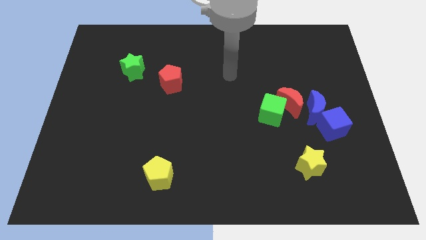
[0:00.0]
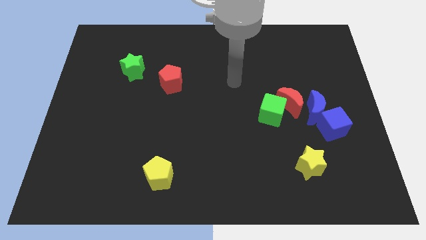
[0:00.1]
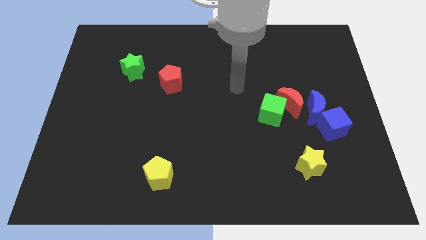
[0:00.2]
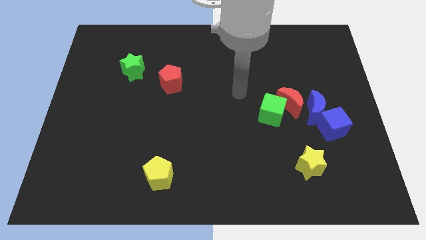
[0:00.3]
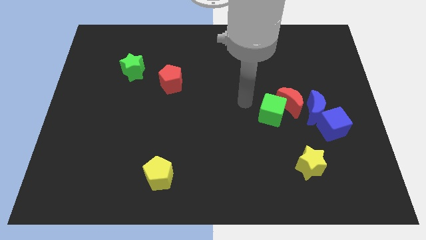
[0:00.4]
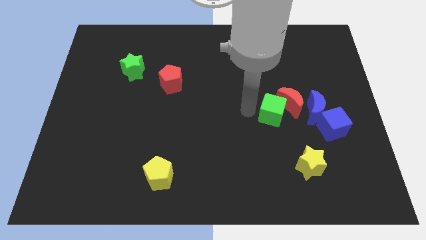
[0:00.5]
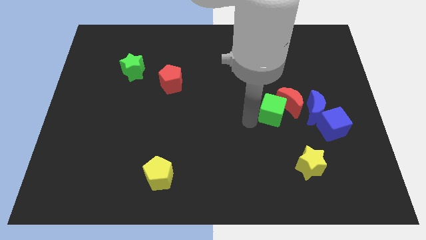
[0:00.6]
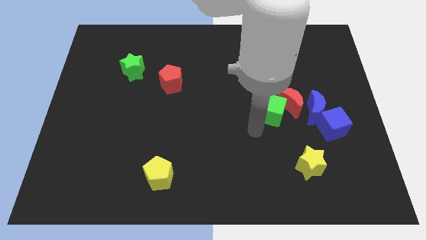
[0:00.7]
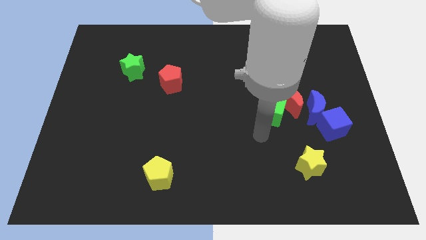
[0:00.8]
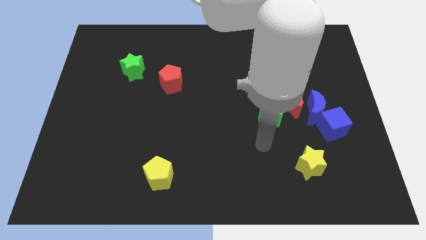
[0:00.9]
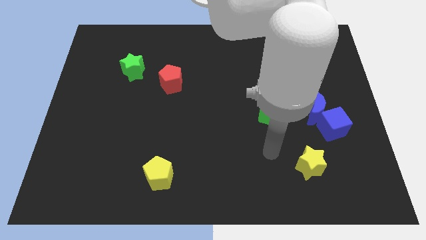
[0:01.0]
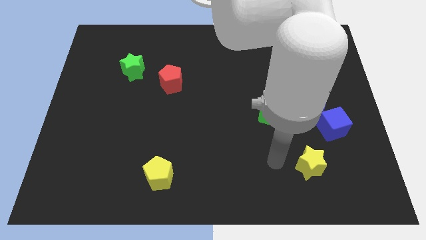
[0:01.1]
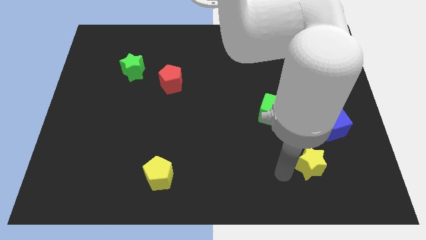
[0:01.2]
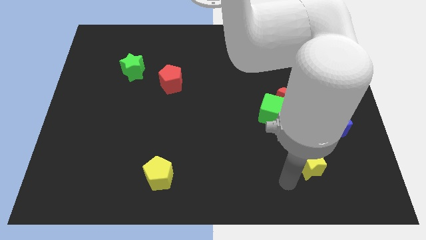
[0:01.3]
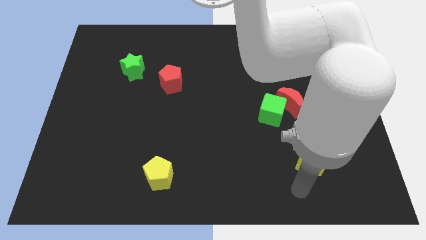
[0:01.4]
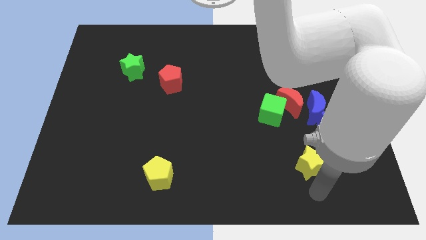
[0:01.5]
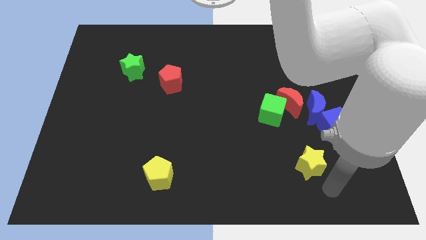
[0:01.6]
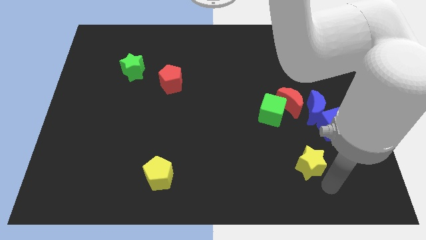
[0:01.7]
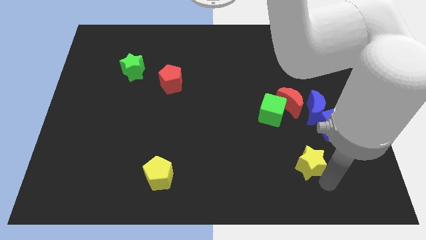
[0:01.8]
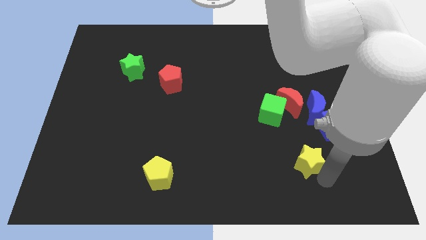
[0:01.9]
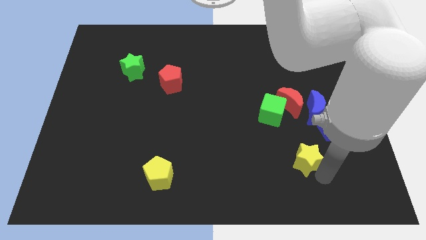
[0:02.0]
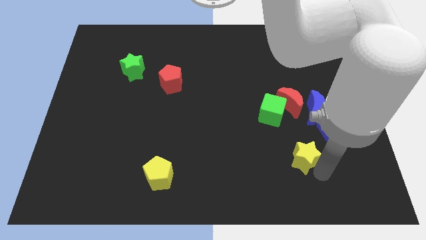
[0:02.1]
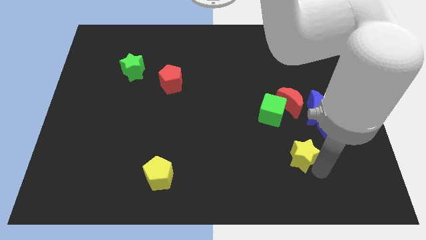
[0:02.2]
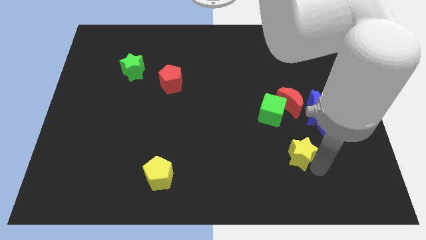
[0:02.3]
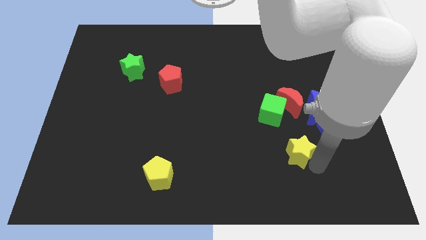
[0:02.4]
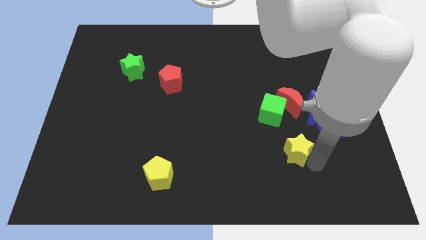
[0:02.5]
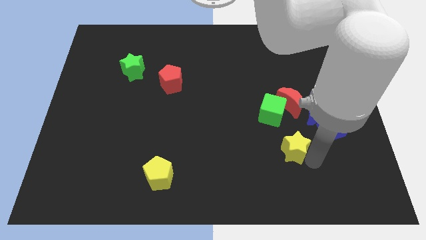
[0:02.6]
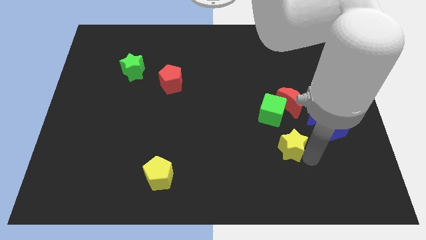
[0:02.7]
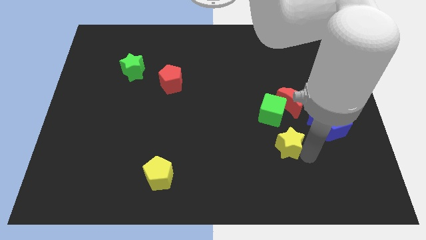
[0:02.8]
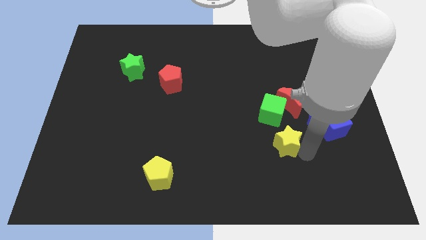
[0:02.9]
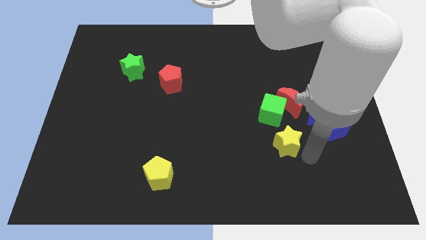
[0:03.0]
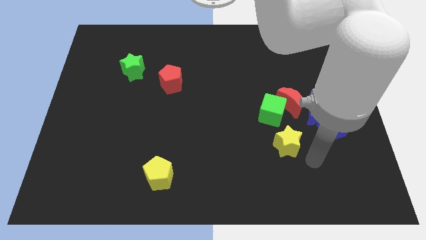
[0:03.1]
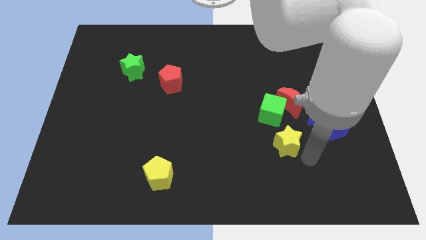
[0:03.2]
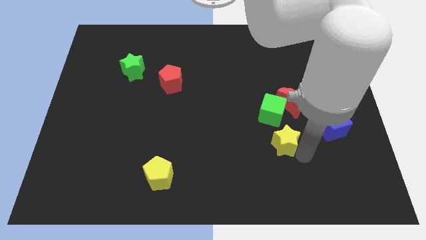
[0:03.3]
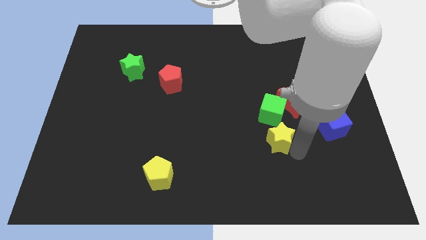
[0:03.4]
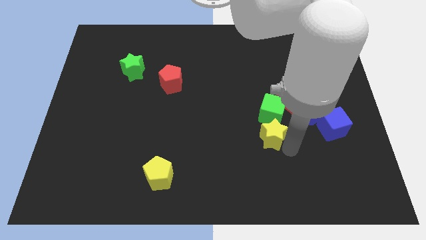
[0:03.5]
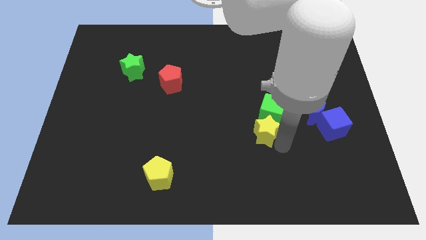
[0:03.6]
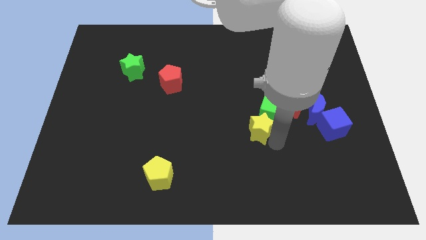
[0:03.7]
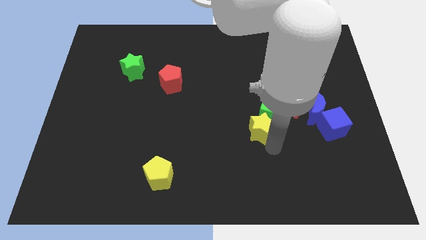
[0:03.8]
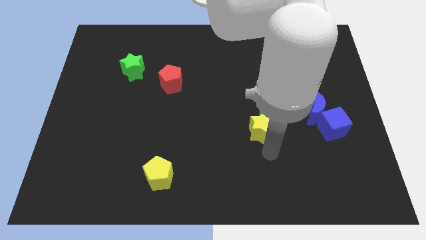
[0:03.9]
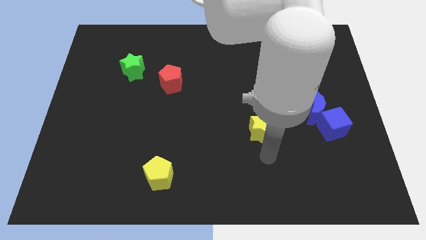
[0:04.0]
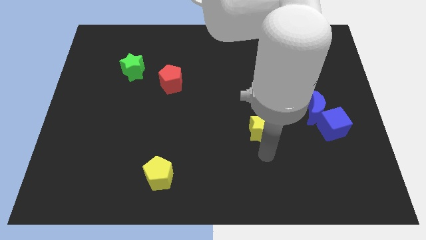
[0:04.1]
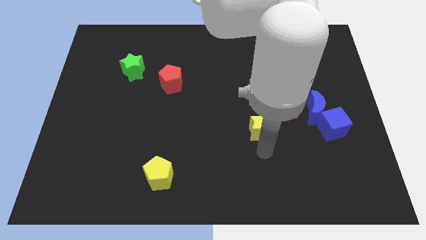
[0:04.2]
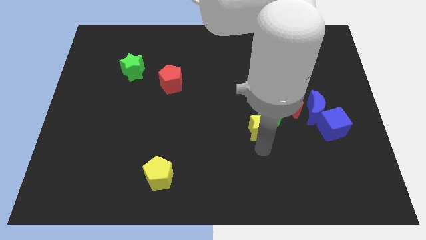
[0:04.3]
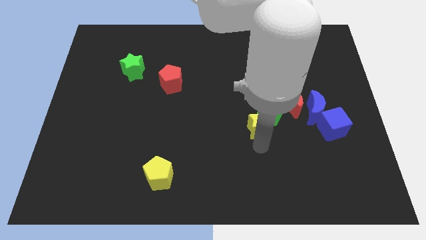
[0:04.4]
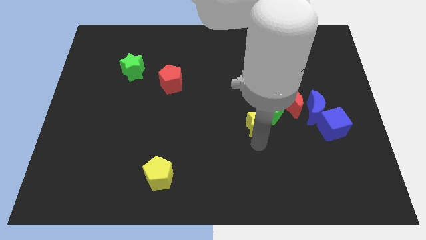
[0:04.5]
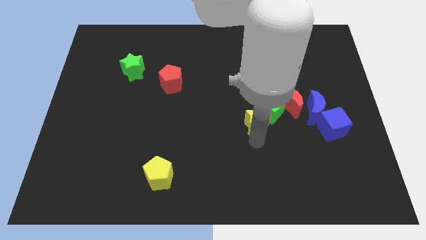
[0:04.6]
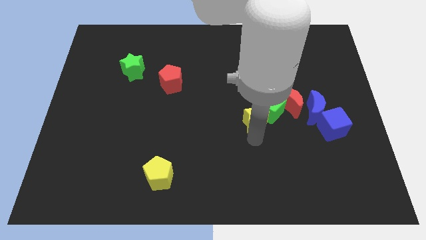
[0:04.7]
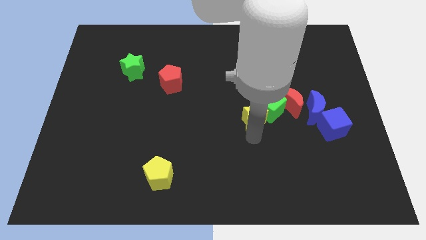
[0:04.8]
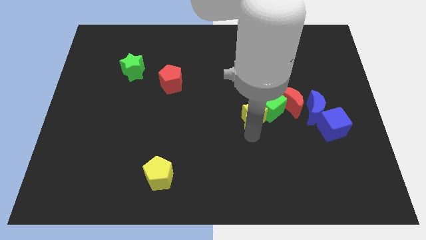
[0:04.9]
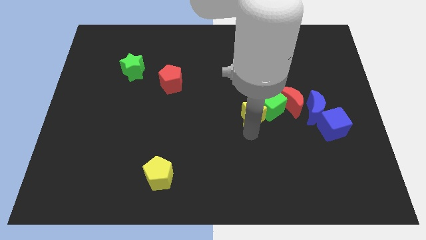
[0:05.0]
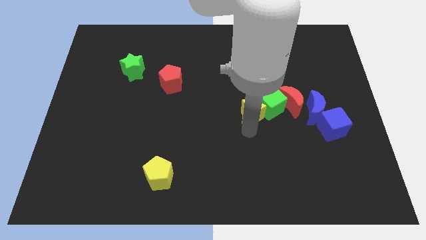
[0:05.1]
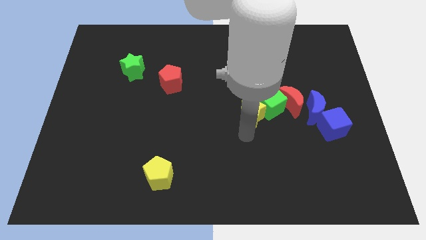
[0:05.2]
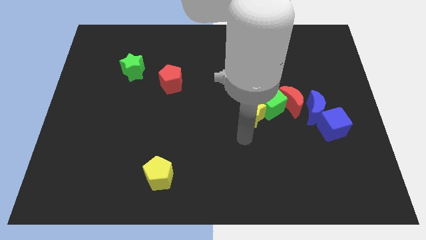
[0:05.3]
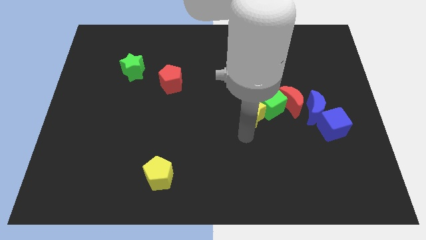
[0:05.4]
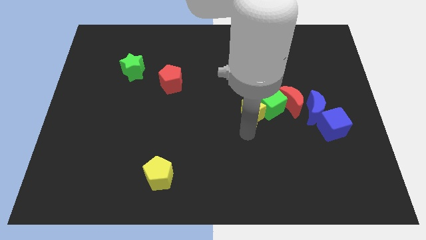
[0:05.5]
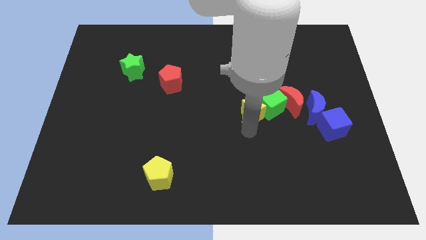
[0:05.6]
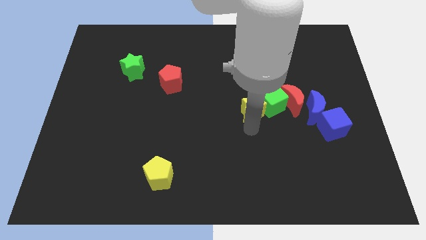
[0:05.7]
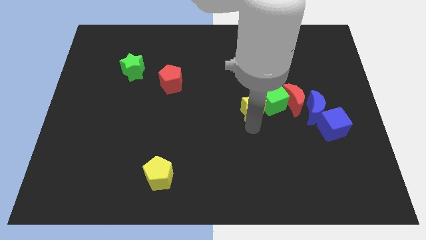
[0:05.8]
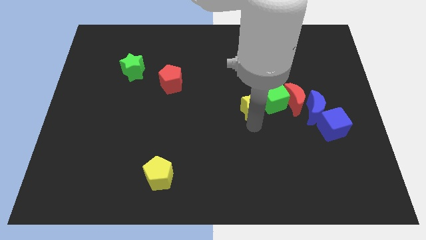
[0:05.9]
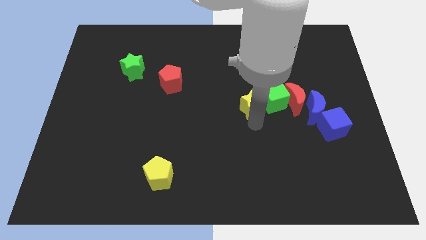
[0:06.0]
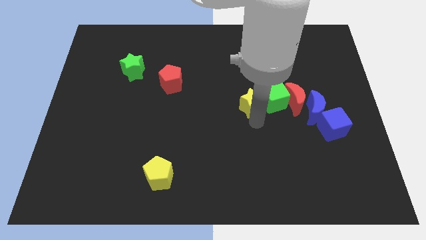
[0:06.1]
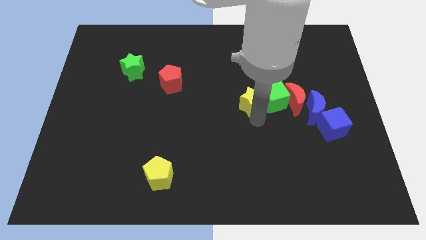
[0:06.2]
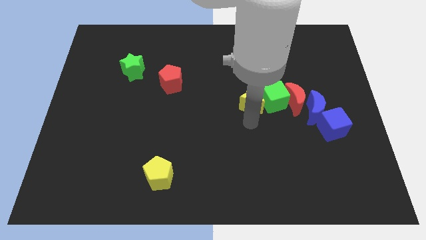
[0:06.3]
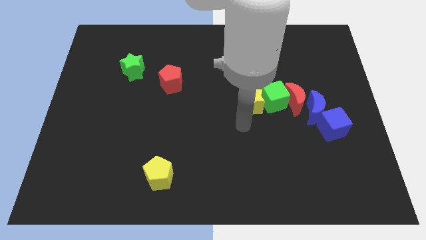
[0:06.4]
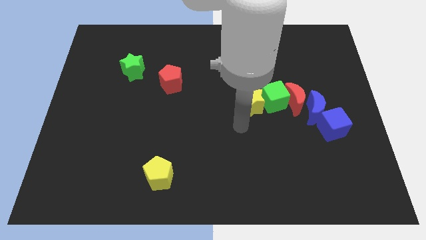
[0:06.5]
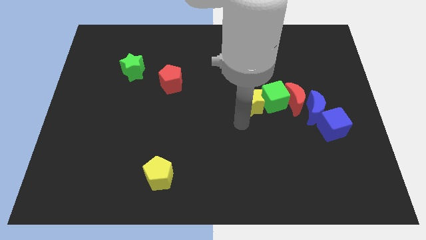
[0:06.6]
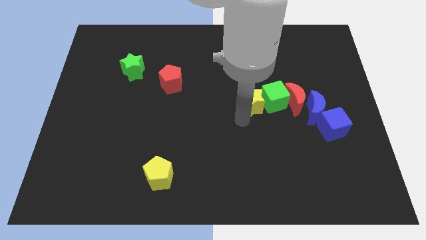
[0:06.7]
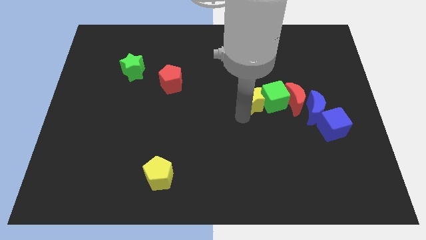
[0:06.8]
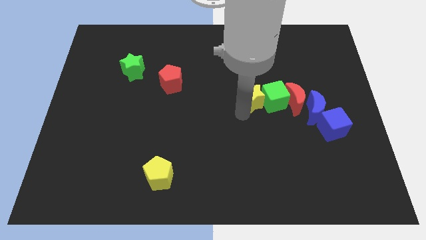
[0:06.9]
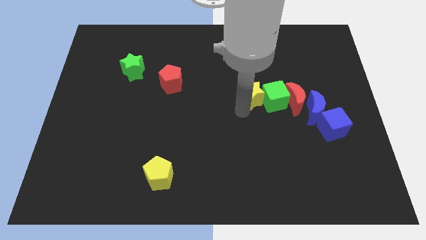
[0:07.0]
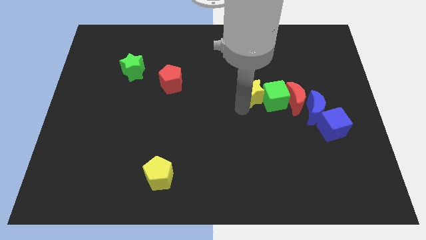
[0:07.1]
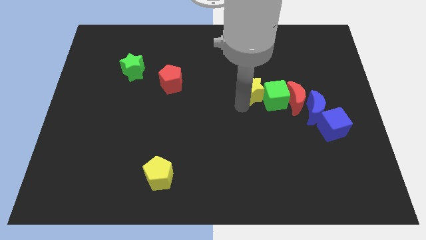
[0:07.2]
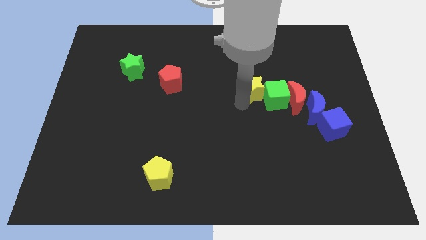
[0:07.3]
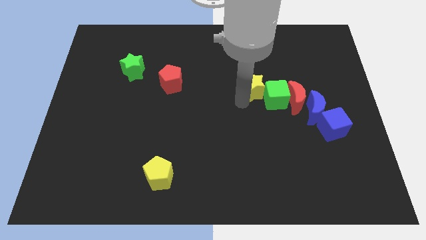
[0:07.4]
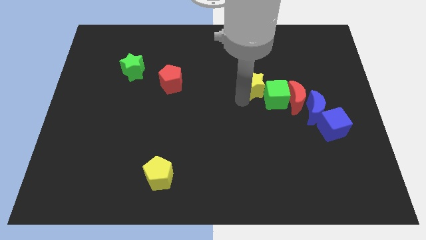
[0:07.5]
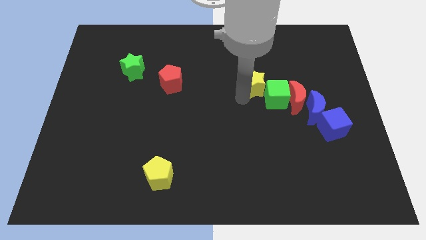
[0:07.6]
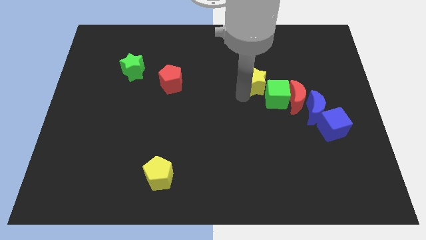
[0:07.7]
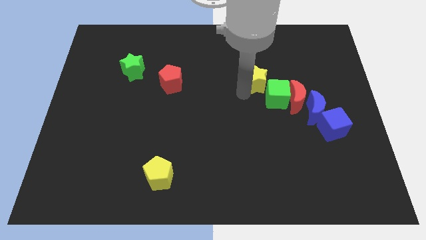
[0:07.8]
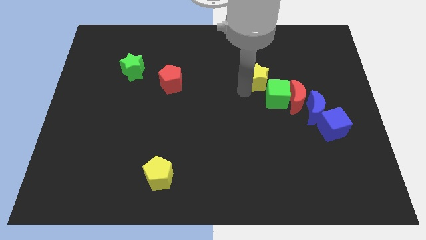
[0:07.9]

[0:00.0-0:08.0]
move the yellow star upwards

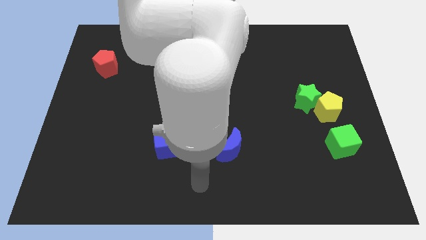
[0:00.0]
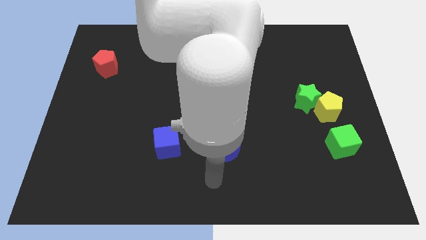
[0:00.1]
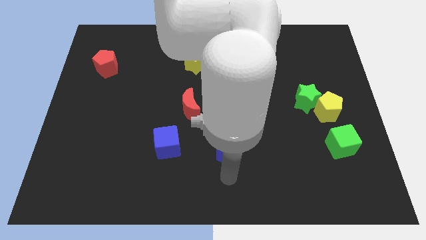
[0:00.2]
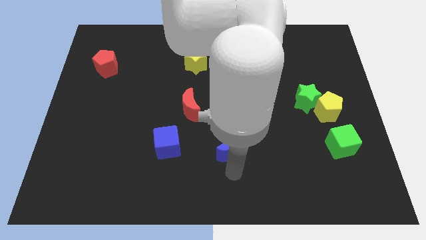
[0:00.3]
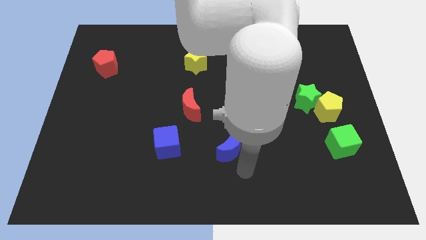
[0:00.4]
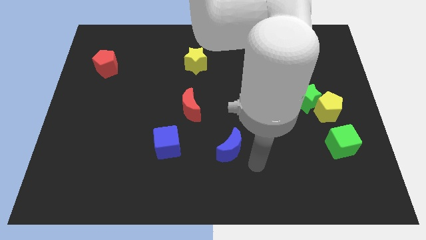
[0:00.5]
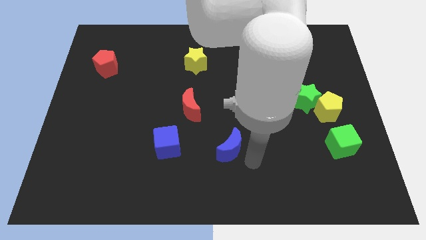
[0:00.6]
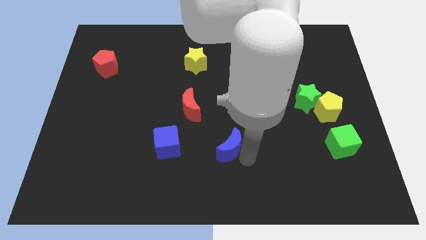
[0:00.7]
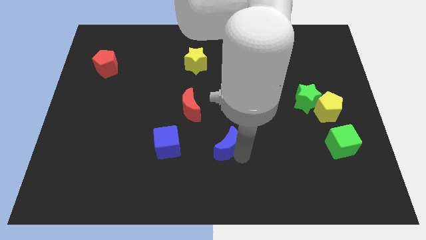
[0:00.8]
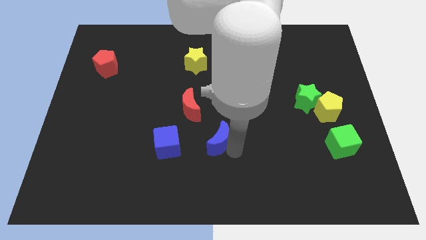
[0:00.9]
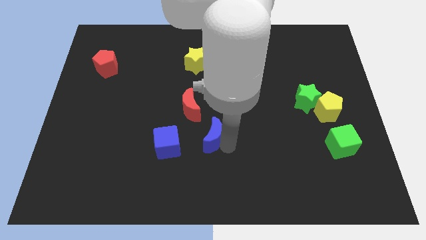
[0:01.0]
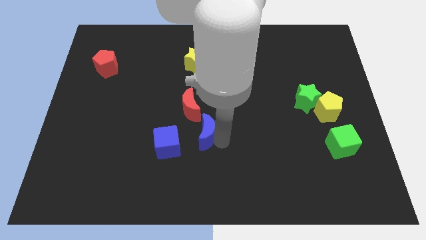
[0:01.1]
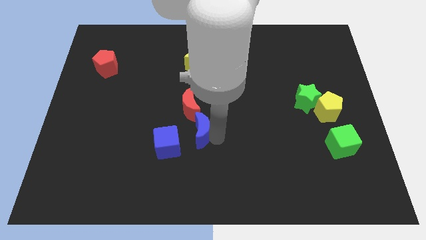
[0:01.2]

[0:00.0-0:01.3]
slide the blue moon a little bit up and then to the left
